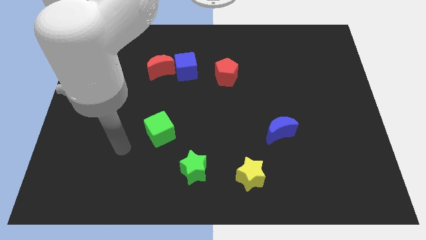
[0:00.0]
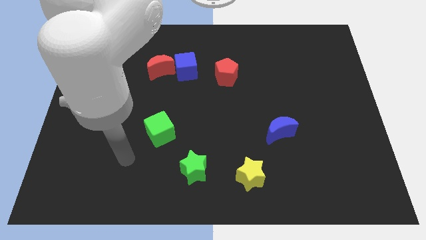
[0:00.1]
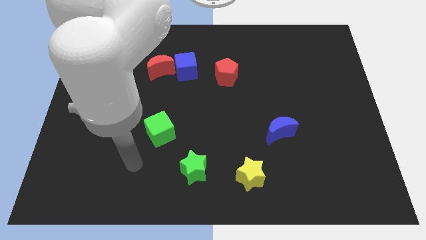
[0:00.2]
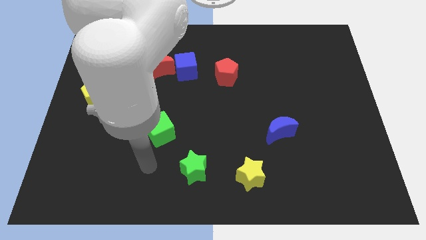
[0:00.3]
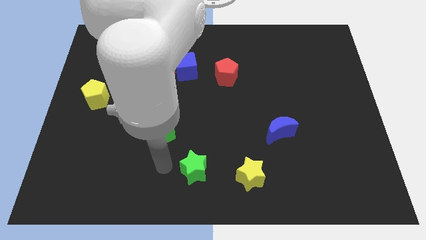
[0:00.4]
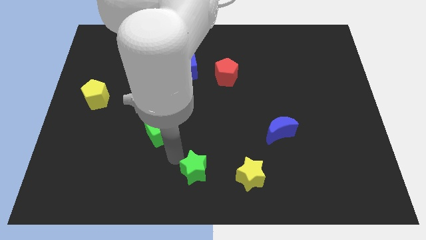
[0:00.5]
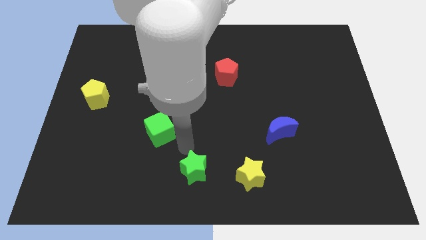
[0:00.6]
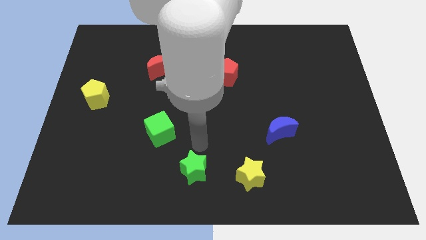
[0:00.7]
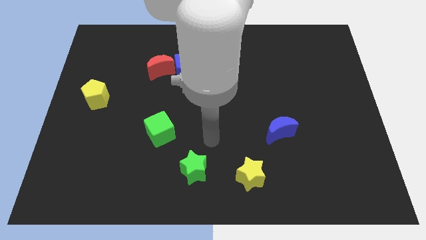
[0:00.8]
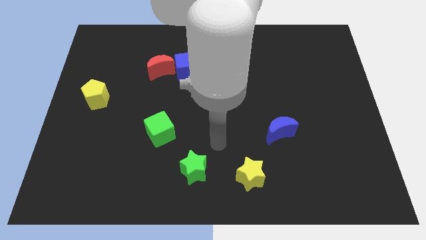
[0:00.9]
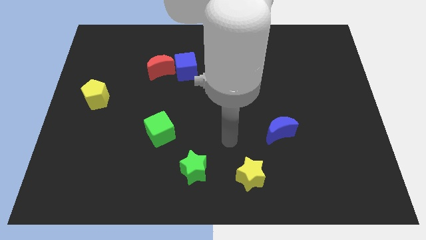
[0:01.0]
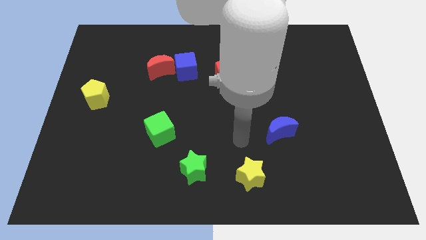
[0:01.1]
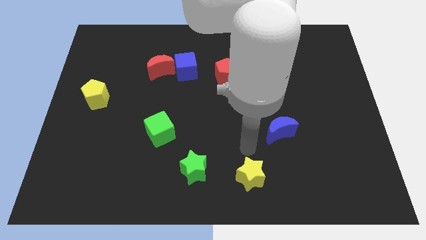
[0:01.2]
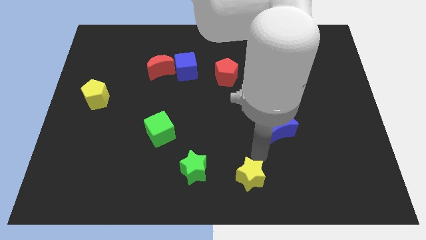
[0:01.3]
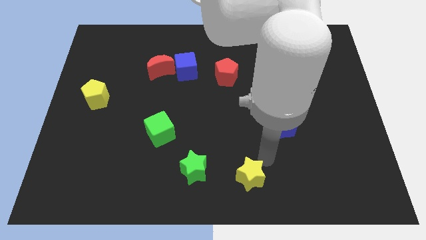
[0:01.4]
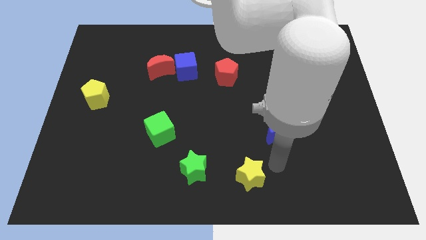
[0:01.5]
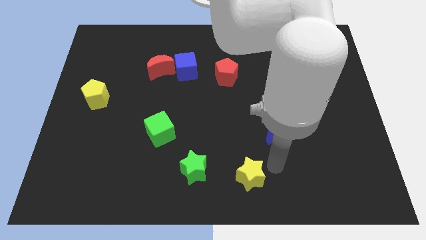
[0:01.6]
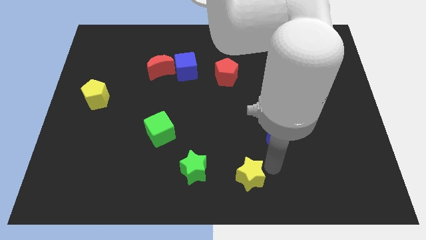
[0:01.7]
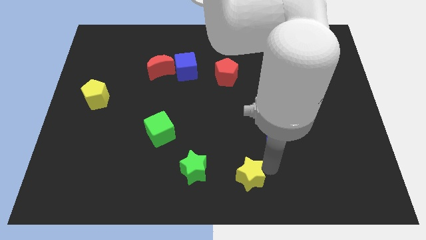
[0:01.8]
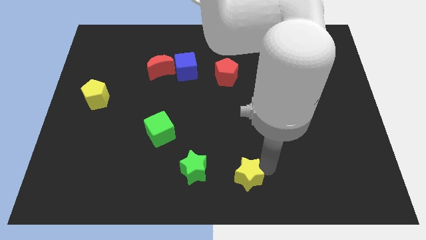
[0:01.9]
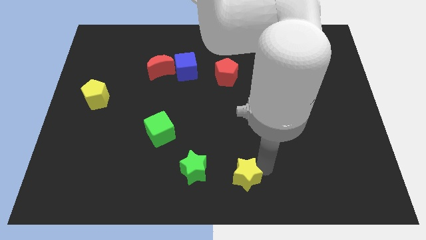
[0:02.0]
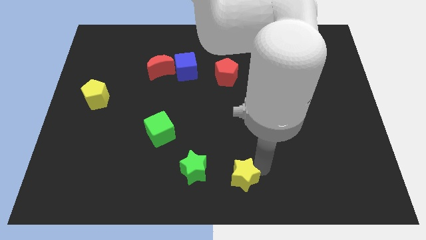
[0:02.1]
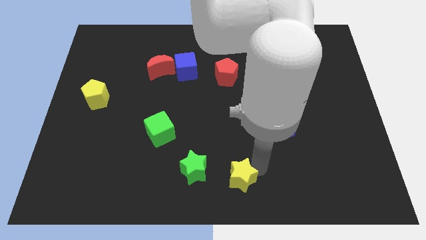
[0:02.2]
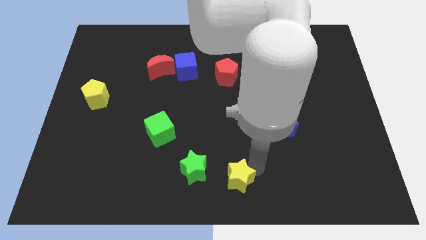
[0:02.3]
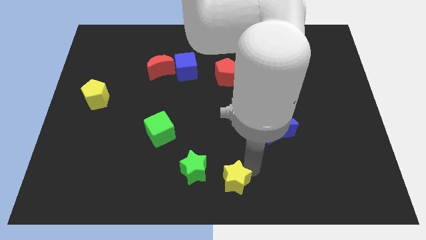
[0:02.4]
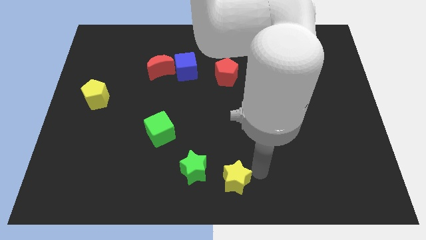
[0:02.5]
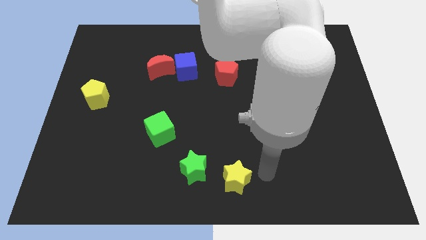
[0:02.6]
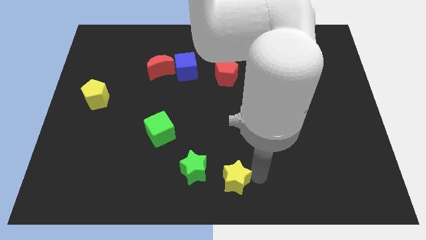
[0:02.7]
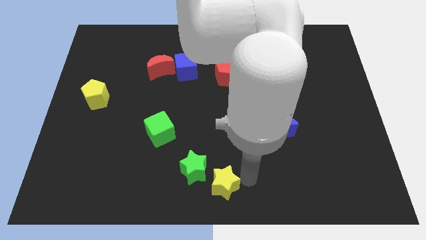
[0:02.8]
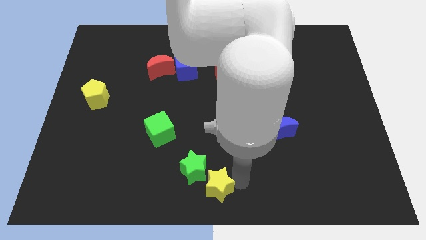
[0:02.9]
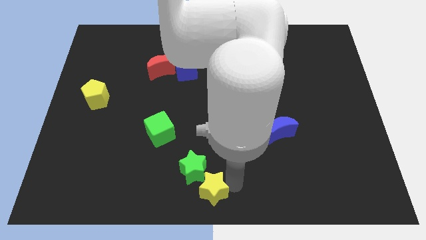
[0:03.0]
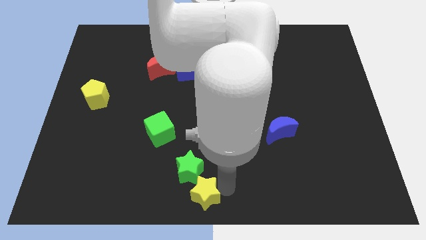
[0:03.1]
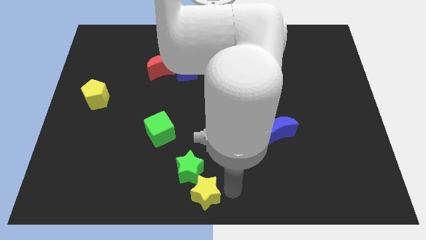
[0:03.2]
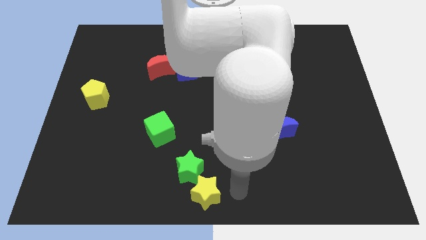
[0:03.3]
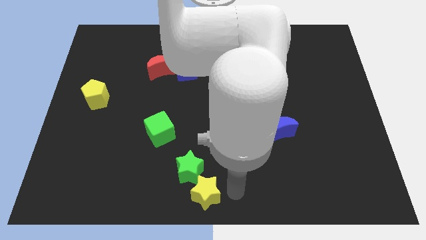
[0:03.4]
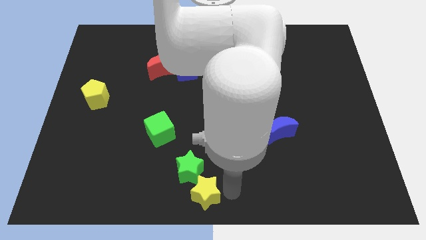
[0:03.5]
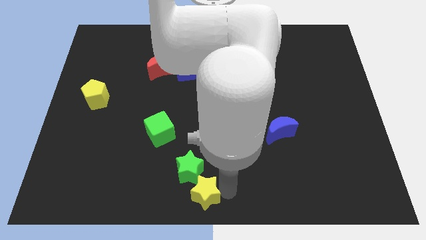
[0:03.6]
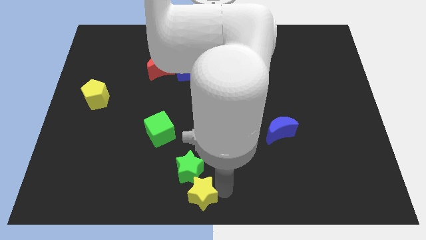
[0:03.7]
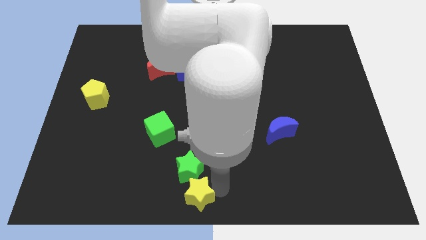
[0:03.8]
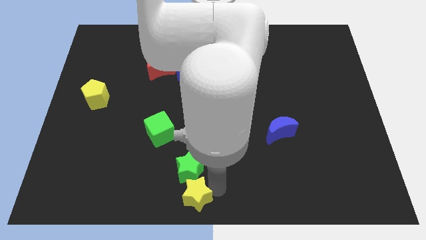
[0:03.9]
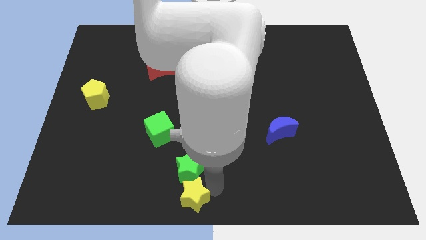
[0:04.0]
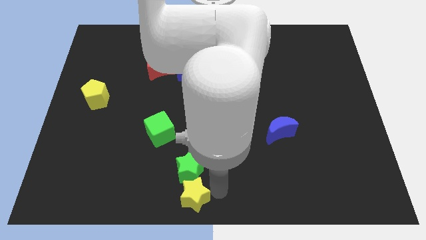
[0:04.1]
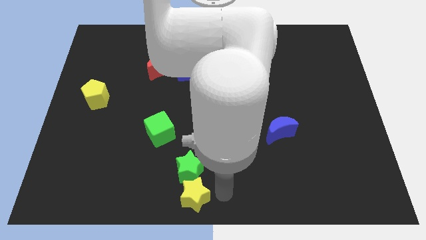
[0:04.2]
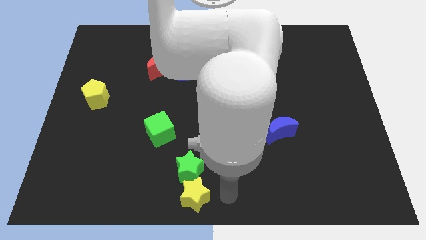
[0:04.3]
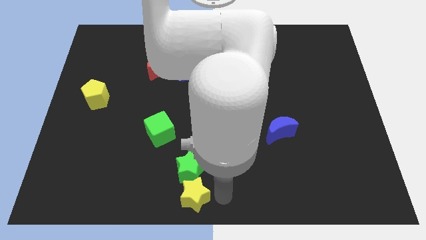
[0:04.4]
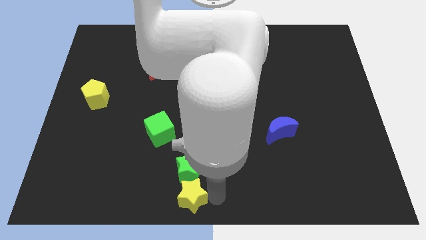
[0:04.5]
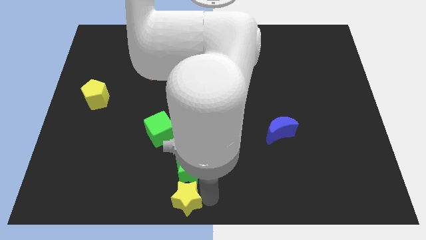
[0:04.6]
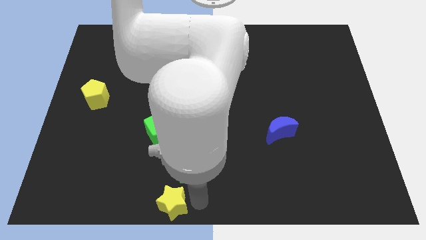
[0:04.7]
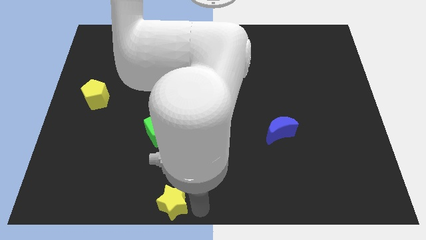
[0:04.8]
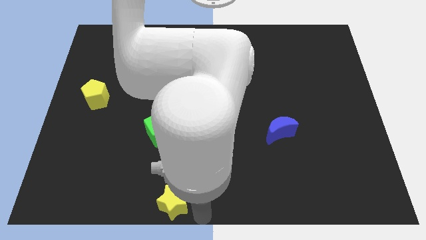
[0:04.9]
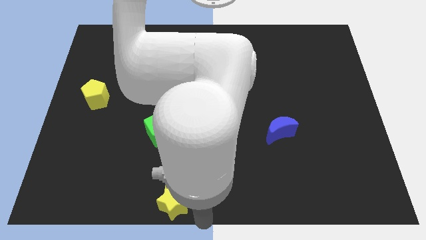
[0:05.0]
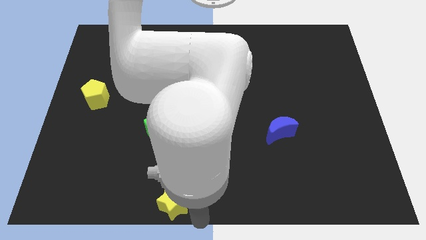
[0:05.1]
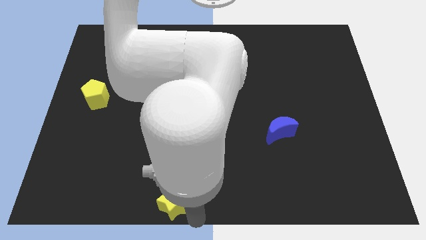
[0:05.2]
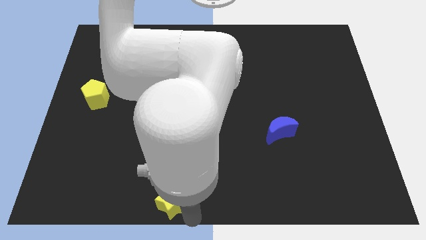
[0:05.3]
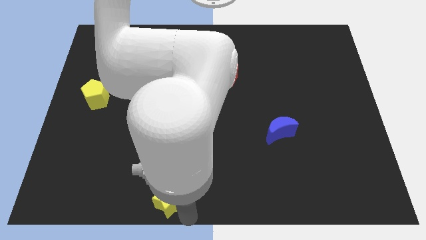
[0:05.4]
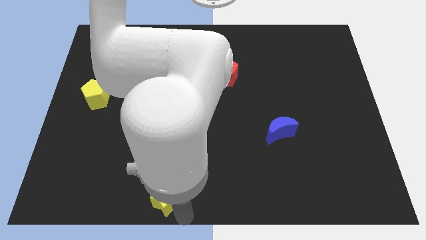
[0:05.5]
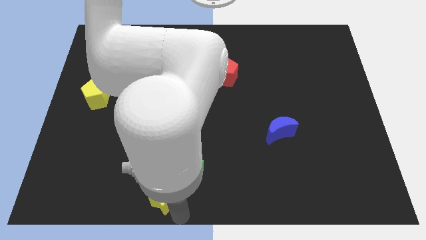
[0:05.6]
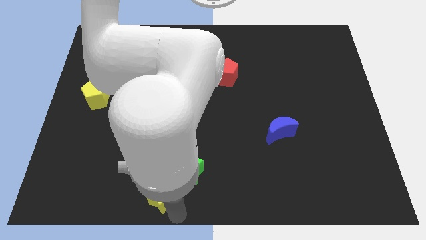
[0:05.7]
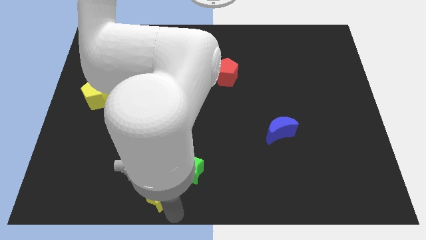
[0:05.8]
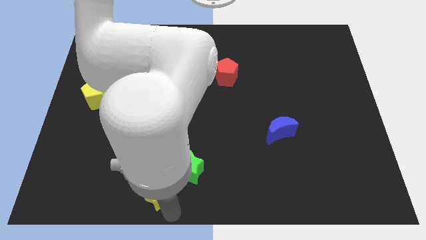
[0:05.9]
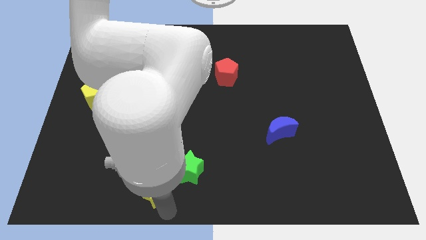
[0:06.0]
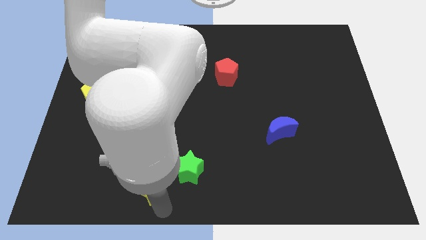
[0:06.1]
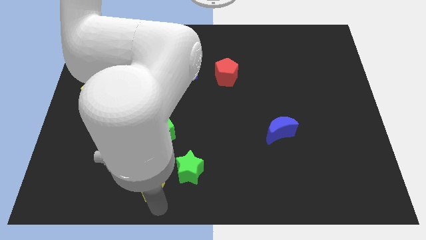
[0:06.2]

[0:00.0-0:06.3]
push the yellow star left

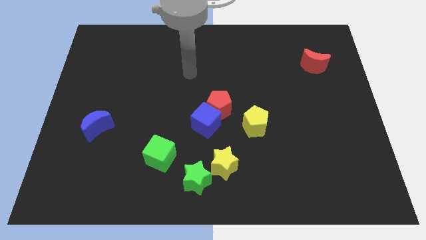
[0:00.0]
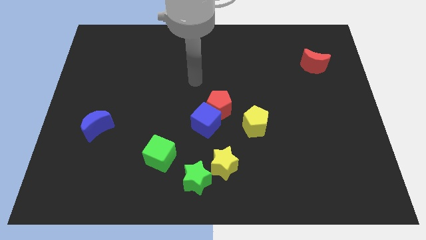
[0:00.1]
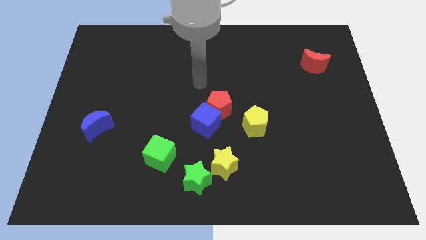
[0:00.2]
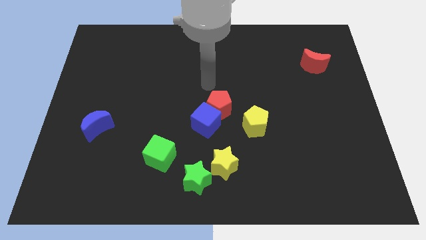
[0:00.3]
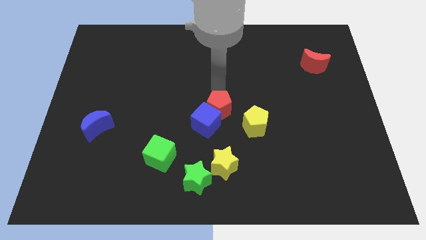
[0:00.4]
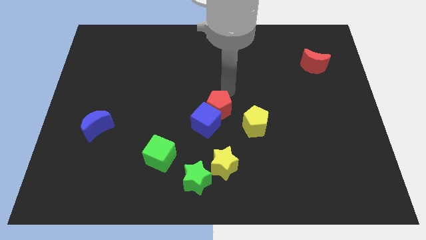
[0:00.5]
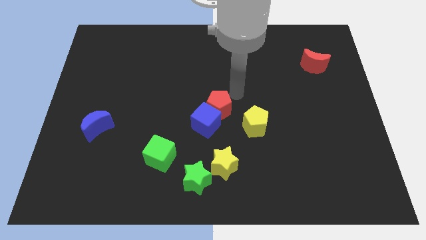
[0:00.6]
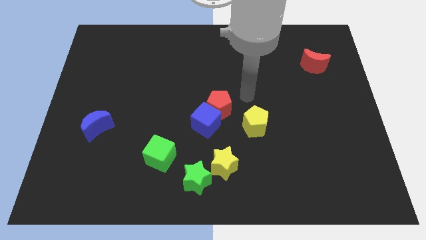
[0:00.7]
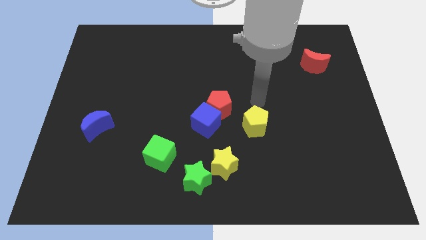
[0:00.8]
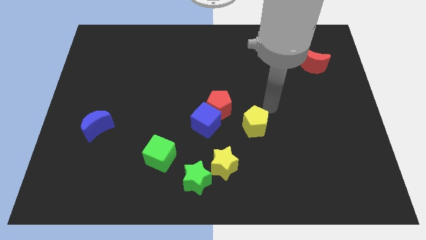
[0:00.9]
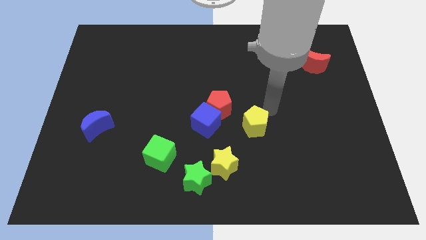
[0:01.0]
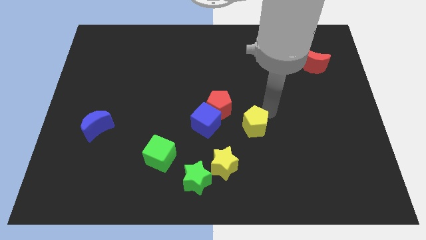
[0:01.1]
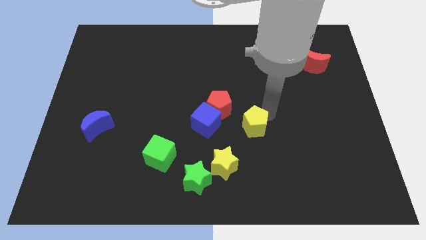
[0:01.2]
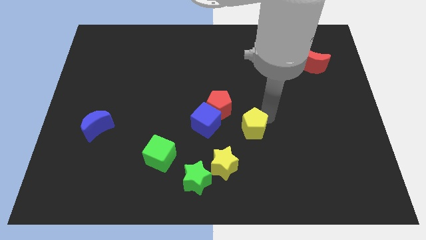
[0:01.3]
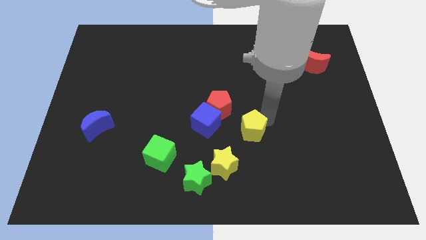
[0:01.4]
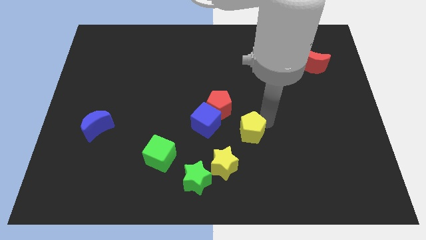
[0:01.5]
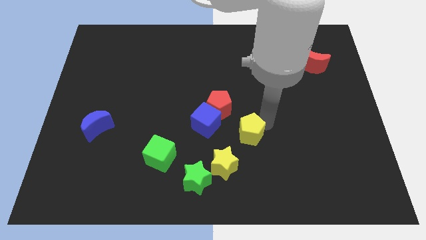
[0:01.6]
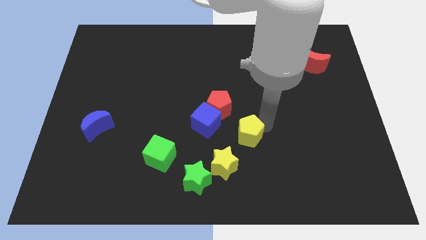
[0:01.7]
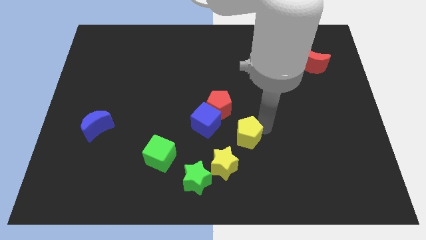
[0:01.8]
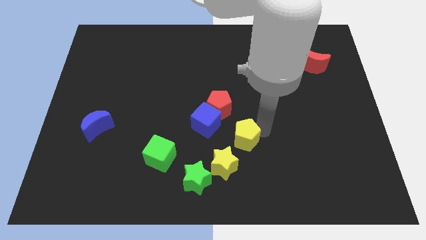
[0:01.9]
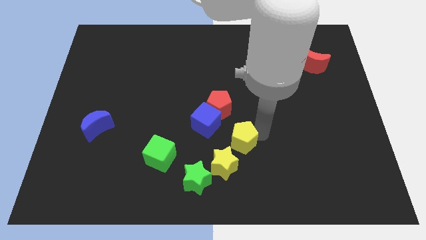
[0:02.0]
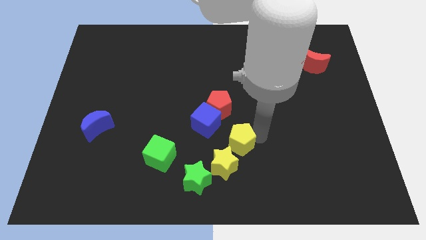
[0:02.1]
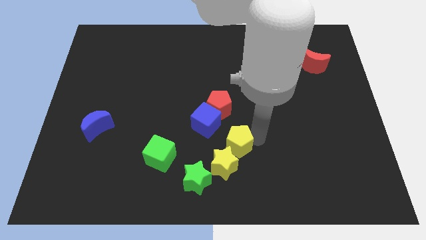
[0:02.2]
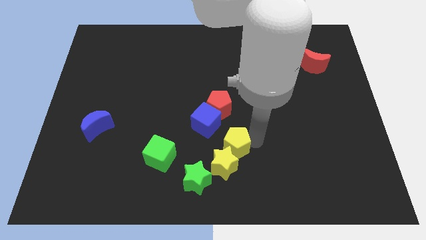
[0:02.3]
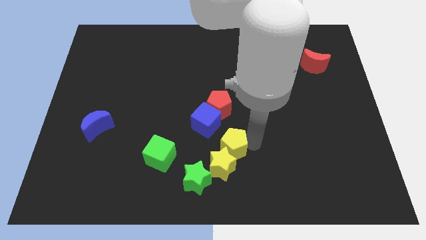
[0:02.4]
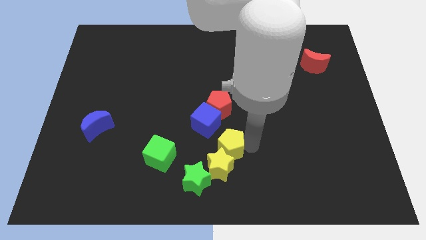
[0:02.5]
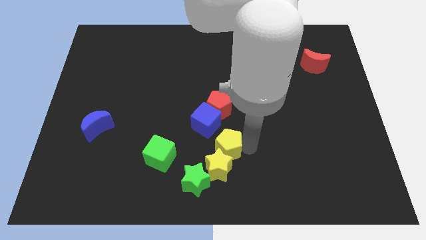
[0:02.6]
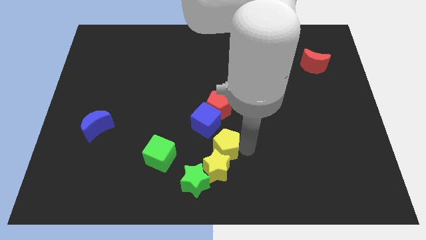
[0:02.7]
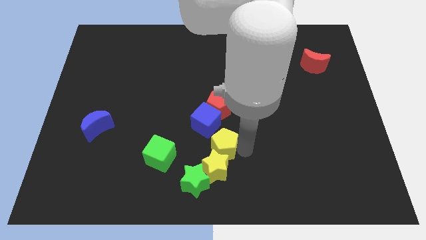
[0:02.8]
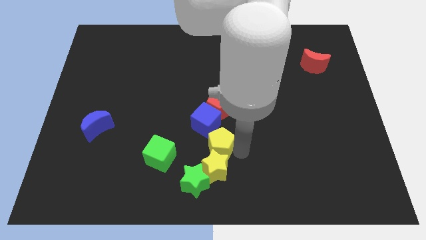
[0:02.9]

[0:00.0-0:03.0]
move the yellow pentagon slightly left
